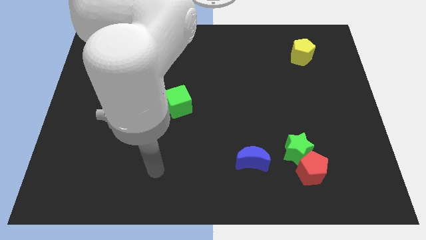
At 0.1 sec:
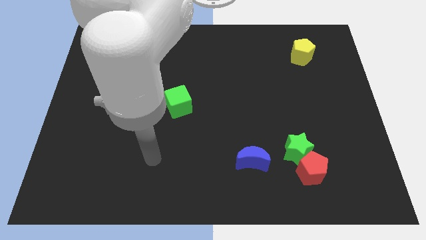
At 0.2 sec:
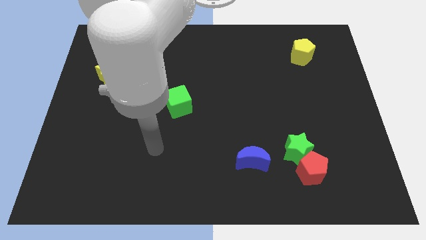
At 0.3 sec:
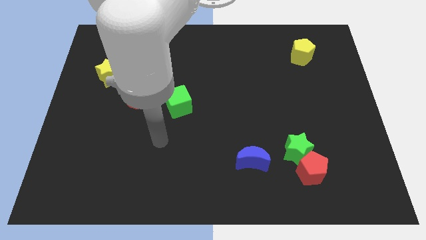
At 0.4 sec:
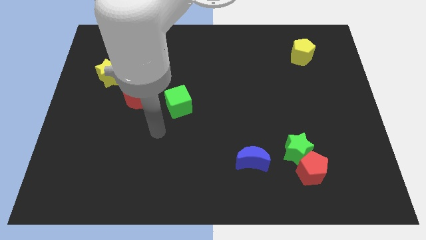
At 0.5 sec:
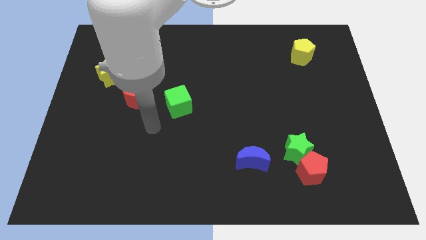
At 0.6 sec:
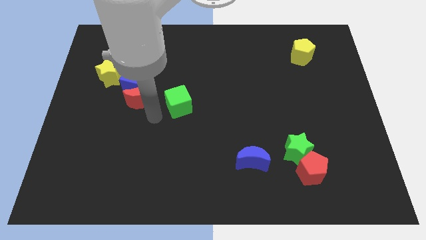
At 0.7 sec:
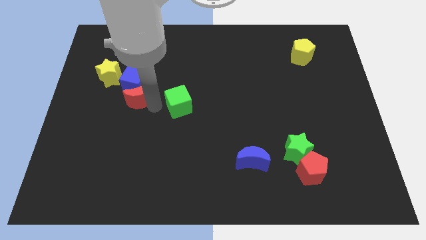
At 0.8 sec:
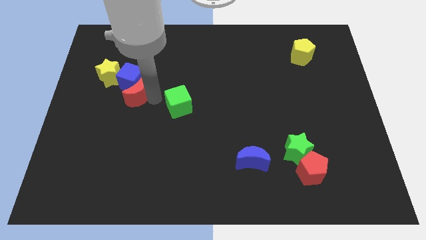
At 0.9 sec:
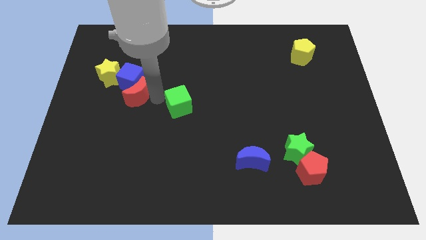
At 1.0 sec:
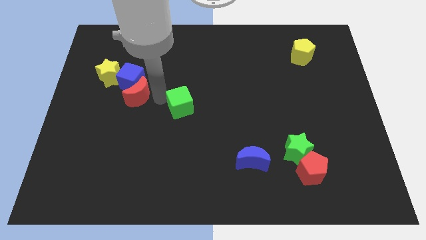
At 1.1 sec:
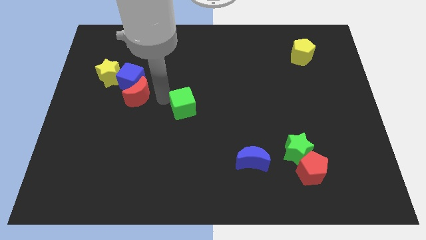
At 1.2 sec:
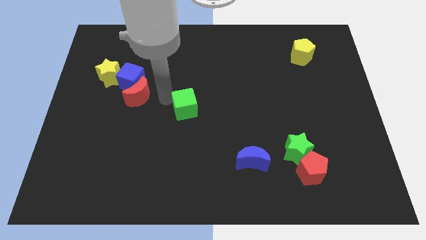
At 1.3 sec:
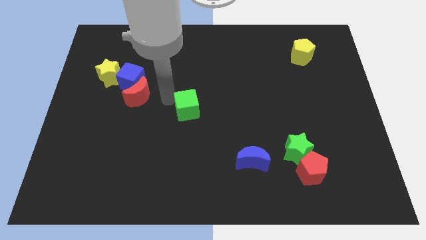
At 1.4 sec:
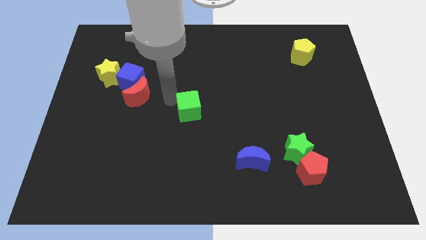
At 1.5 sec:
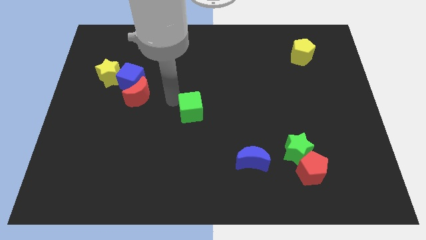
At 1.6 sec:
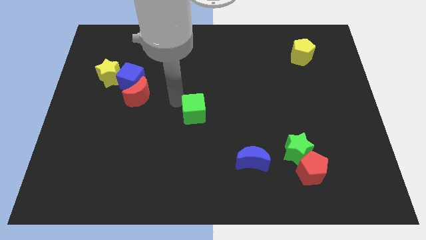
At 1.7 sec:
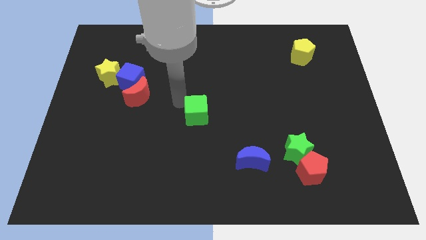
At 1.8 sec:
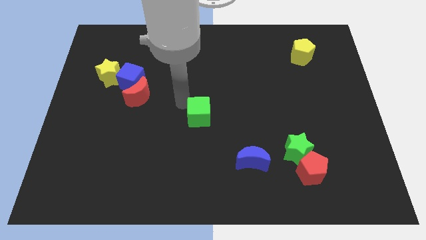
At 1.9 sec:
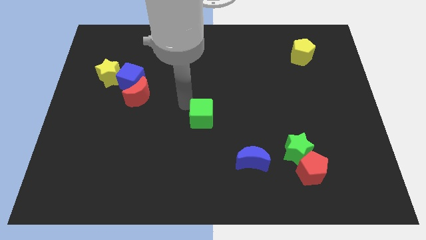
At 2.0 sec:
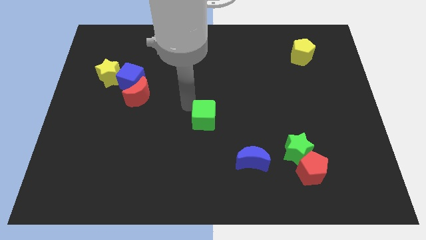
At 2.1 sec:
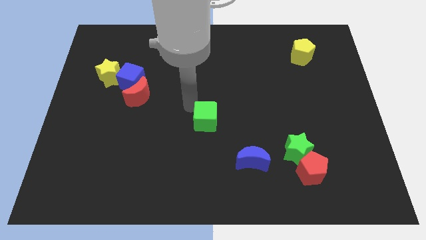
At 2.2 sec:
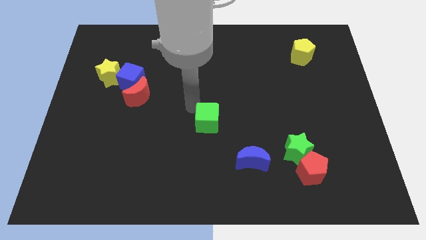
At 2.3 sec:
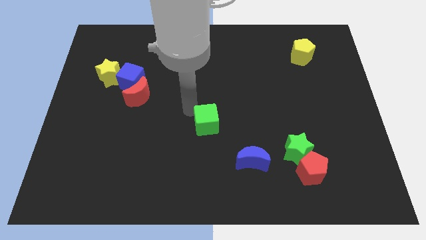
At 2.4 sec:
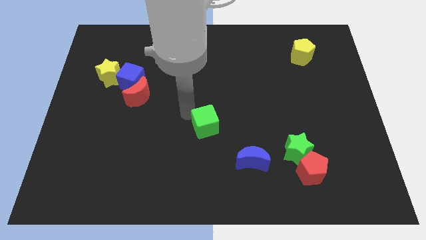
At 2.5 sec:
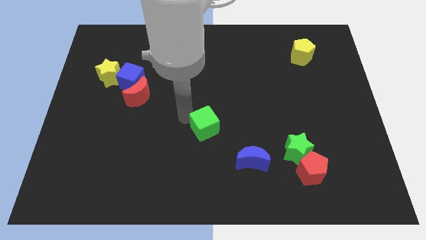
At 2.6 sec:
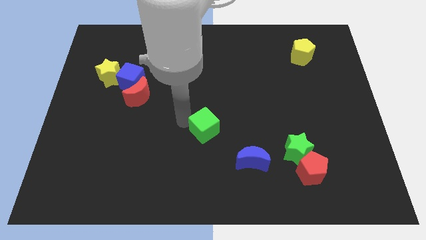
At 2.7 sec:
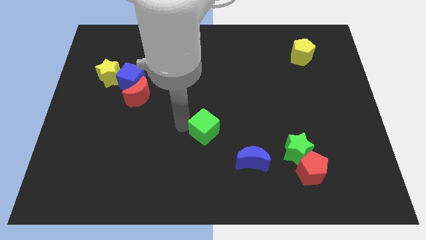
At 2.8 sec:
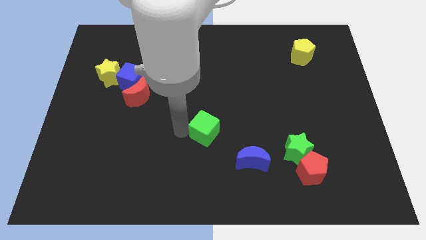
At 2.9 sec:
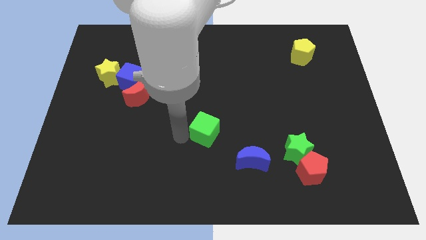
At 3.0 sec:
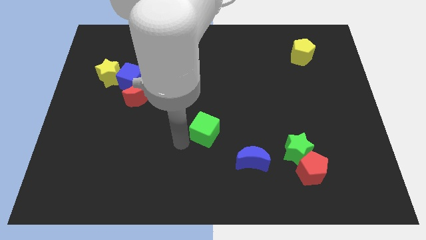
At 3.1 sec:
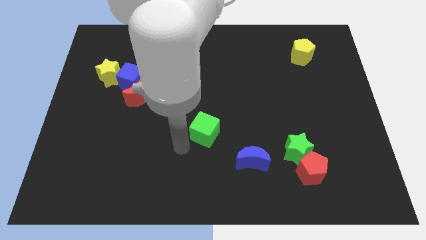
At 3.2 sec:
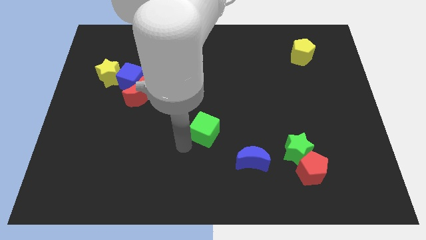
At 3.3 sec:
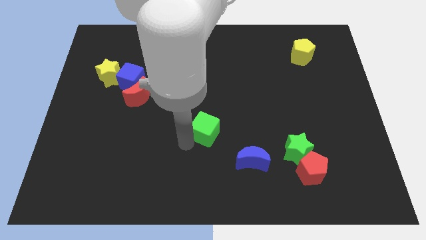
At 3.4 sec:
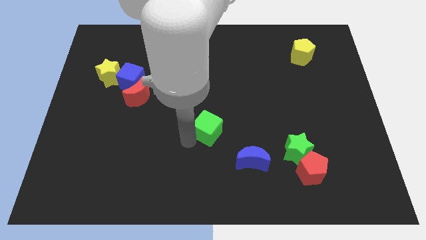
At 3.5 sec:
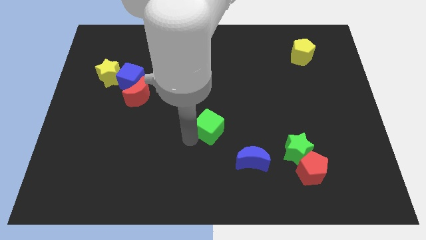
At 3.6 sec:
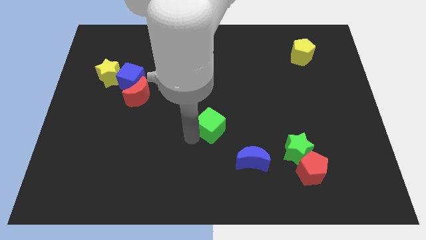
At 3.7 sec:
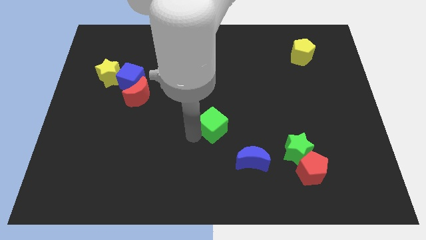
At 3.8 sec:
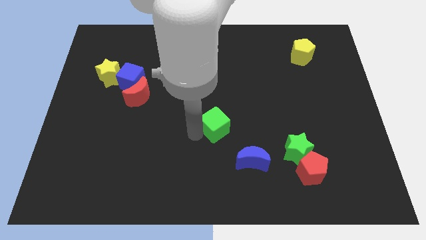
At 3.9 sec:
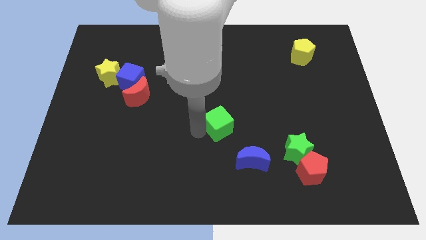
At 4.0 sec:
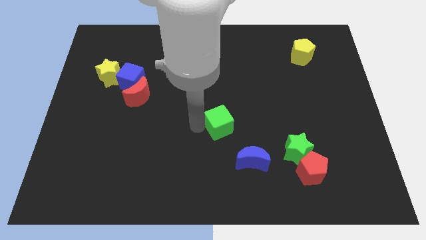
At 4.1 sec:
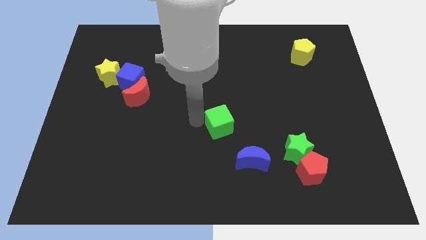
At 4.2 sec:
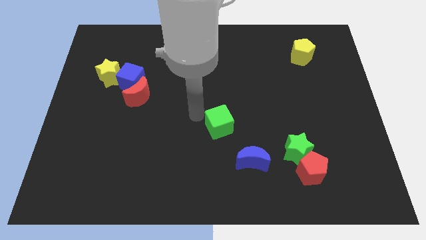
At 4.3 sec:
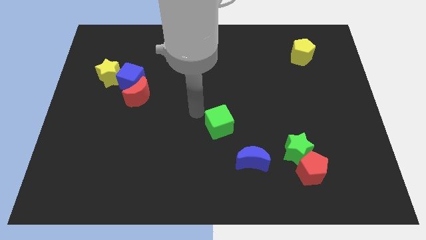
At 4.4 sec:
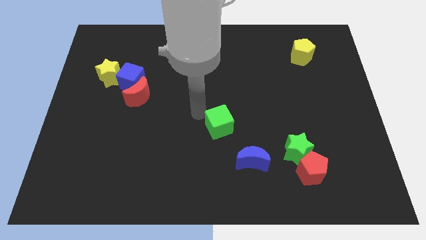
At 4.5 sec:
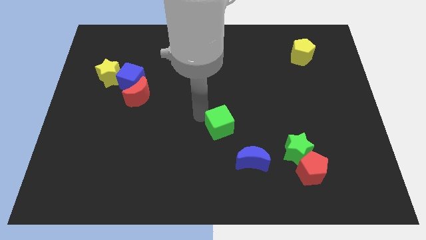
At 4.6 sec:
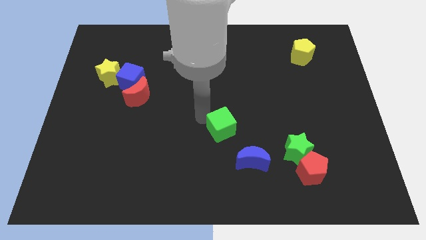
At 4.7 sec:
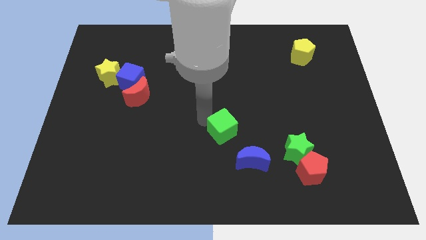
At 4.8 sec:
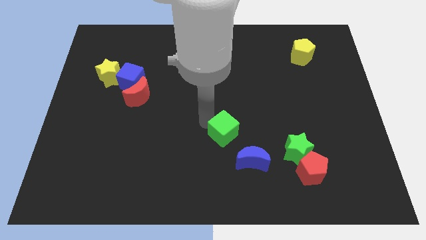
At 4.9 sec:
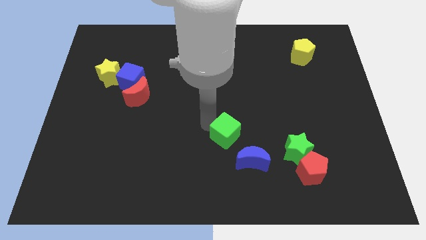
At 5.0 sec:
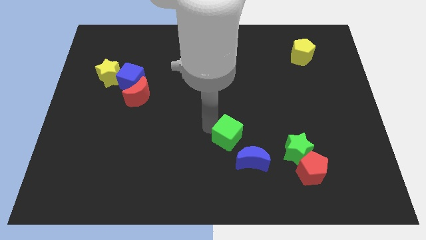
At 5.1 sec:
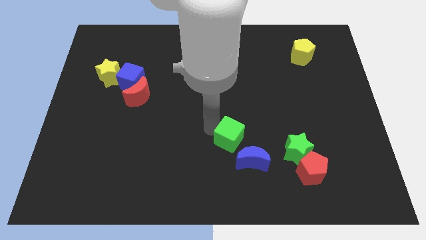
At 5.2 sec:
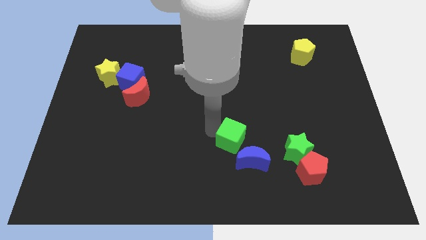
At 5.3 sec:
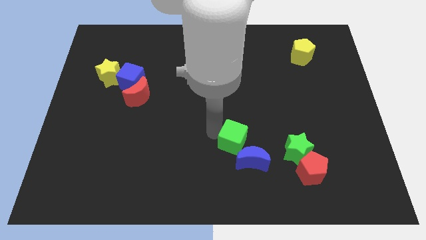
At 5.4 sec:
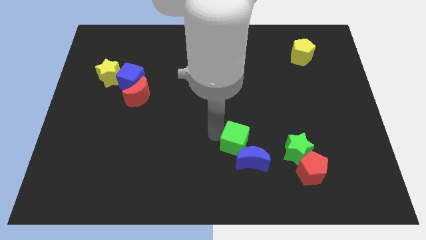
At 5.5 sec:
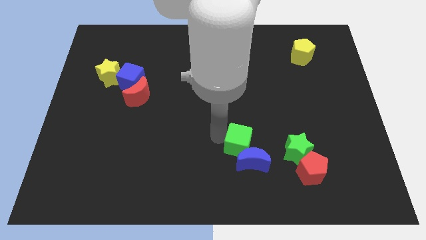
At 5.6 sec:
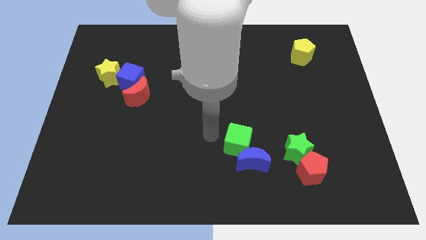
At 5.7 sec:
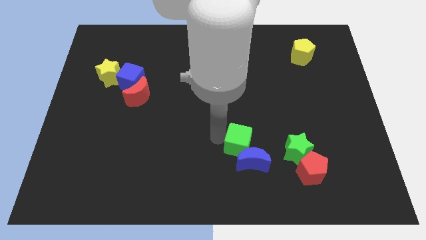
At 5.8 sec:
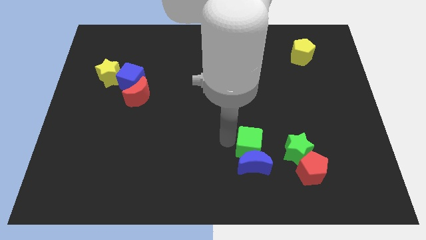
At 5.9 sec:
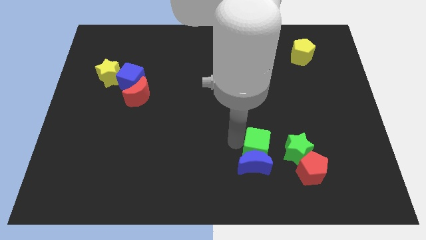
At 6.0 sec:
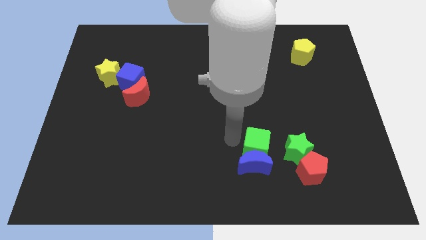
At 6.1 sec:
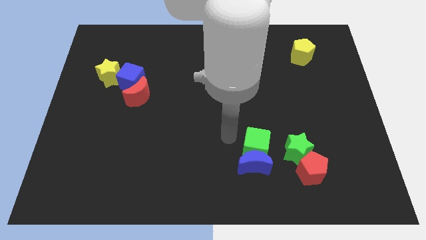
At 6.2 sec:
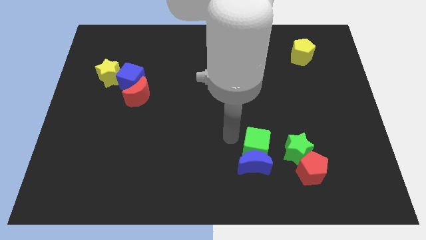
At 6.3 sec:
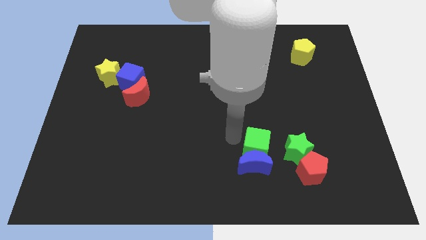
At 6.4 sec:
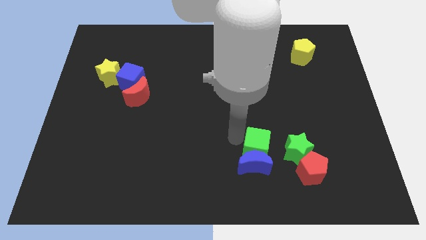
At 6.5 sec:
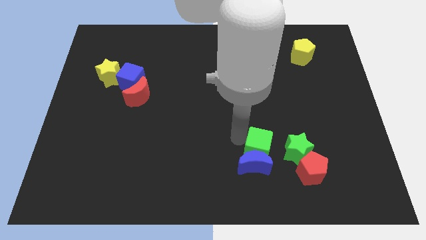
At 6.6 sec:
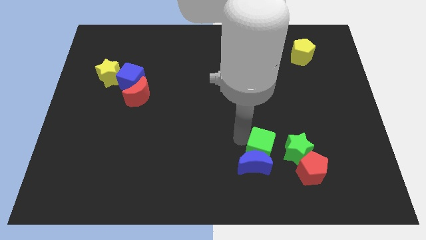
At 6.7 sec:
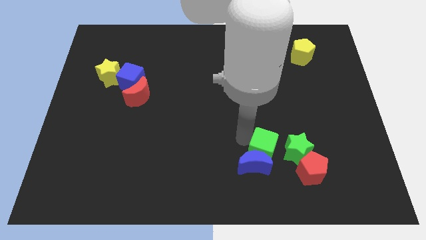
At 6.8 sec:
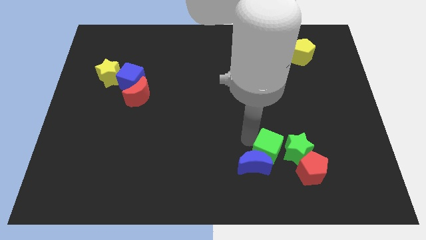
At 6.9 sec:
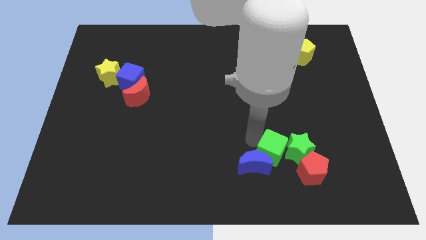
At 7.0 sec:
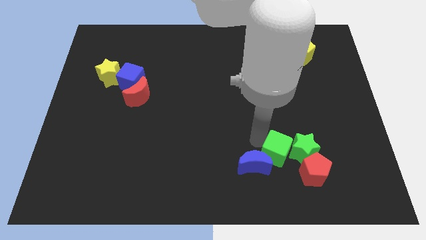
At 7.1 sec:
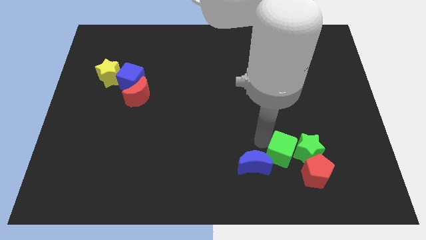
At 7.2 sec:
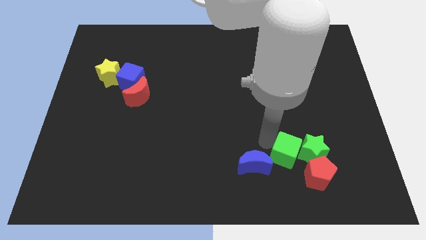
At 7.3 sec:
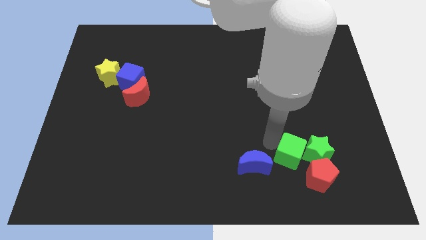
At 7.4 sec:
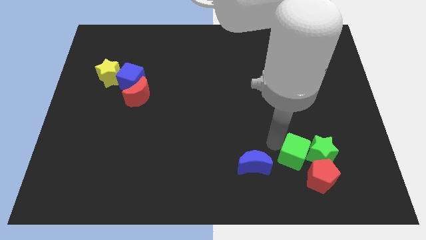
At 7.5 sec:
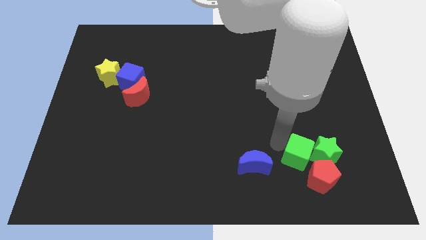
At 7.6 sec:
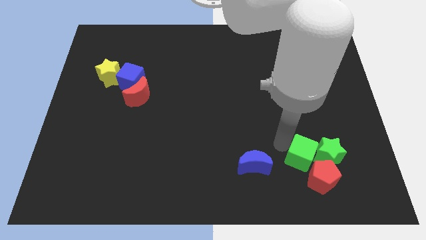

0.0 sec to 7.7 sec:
push the green cube next to the red pentagon
